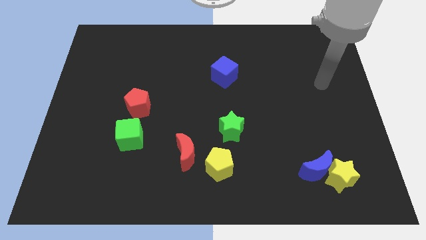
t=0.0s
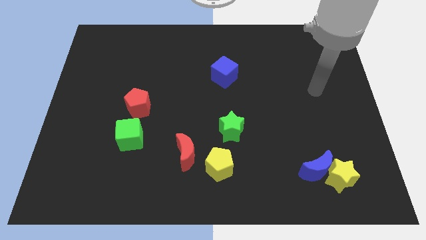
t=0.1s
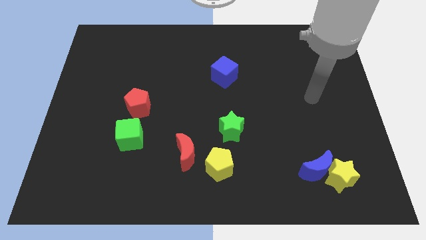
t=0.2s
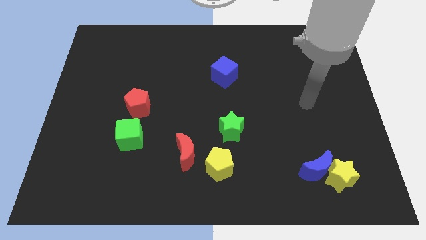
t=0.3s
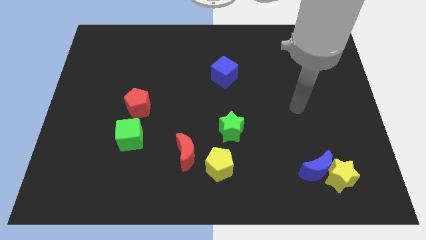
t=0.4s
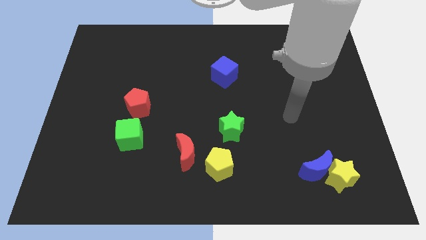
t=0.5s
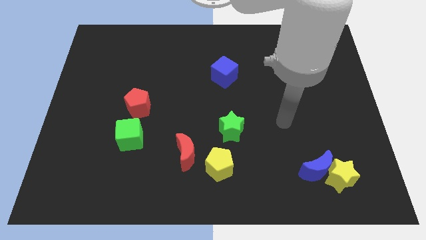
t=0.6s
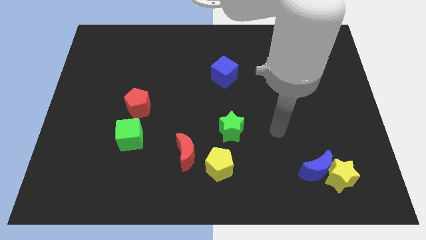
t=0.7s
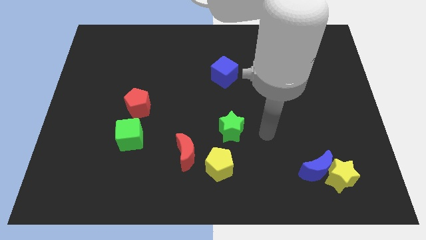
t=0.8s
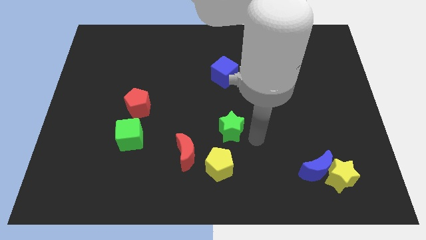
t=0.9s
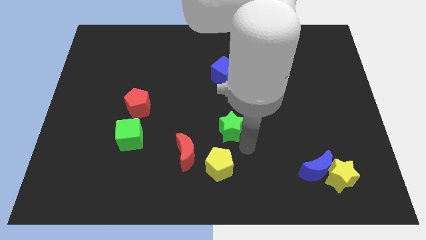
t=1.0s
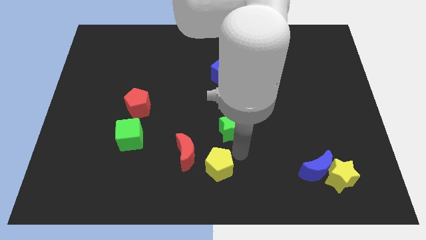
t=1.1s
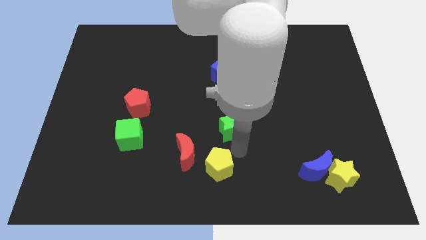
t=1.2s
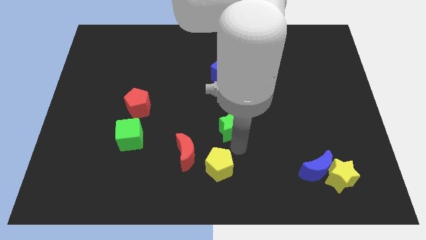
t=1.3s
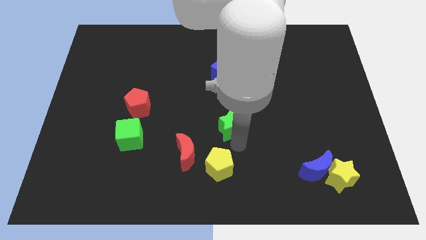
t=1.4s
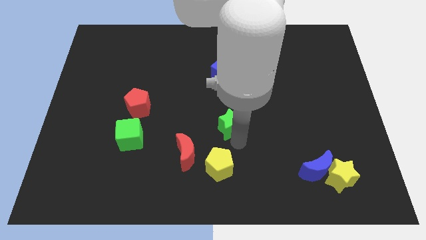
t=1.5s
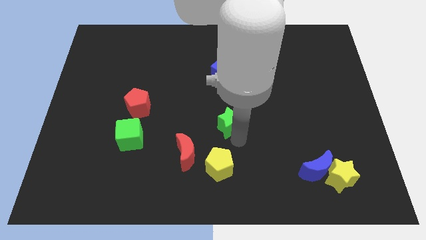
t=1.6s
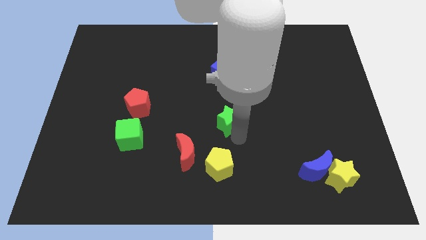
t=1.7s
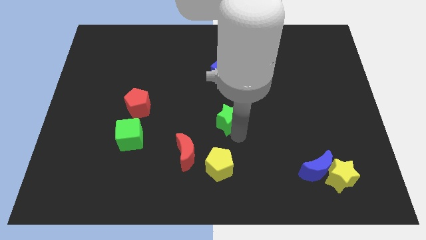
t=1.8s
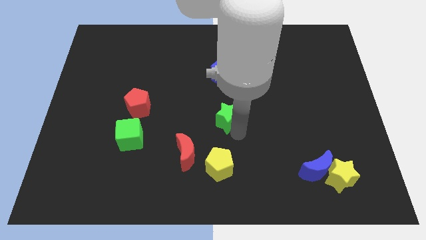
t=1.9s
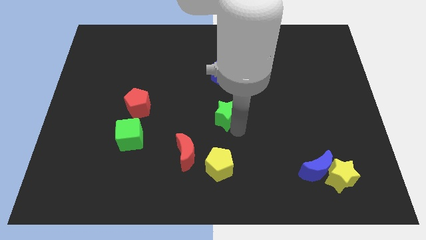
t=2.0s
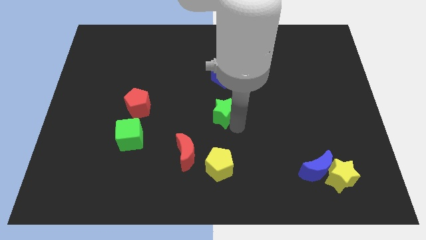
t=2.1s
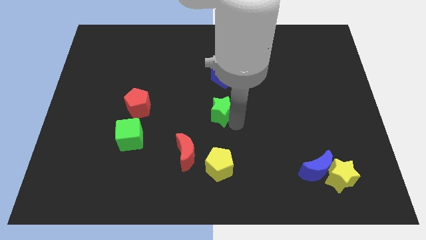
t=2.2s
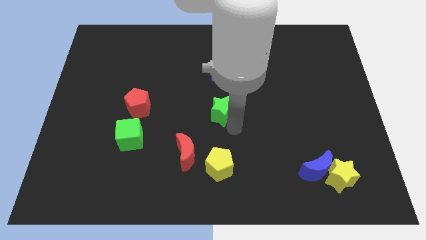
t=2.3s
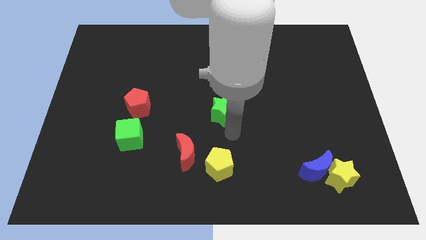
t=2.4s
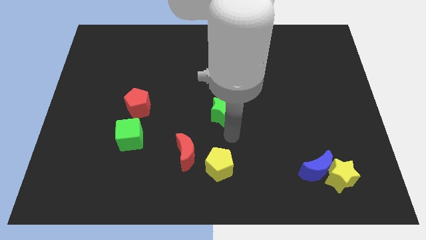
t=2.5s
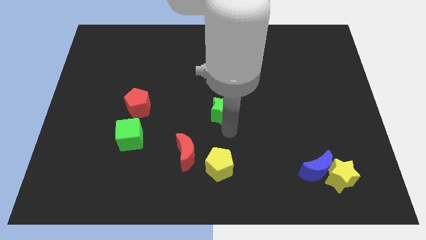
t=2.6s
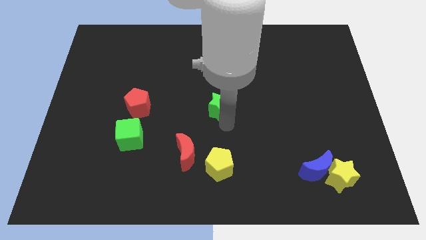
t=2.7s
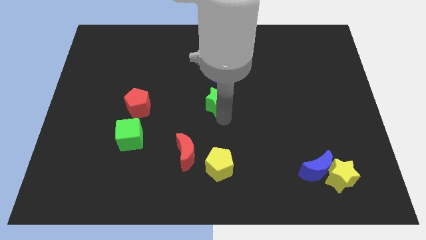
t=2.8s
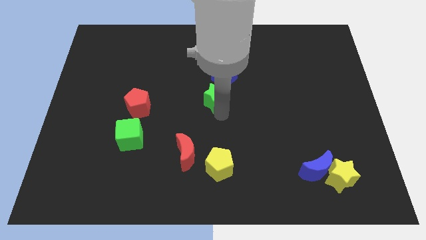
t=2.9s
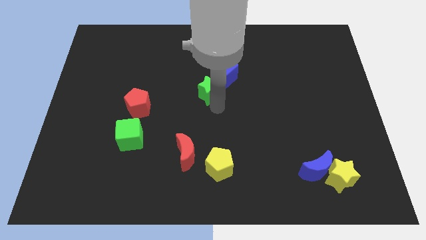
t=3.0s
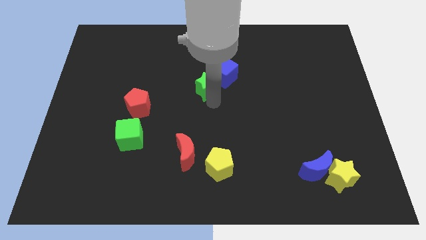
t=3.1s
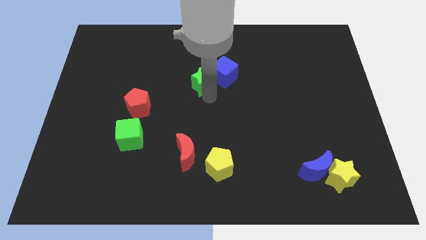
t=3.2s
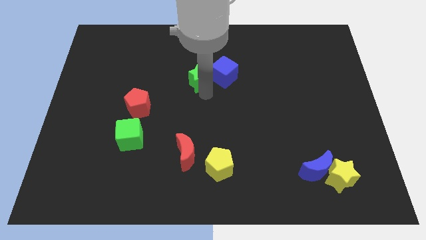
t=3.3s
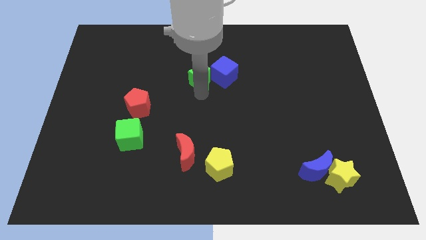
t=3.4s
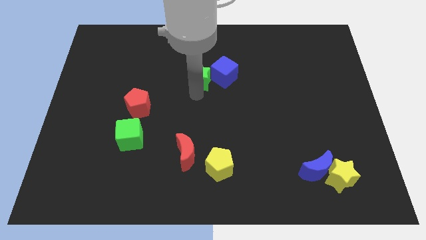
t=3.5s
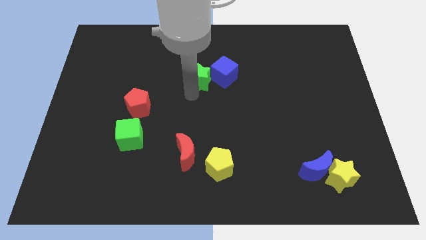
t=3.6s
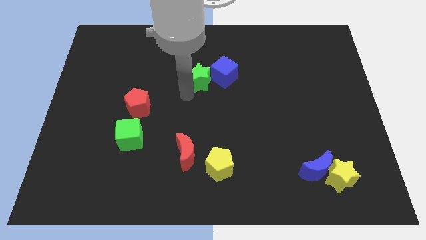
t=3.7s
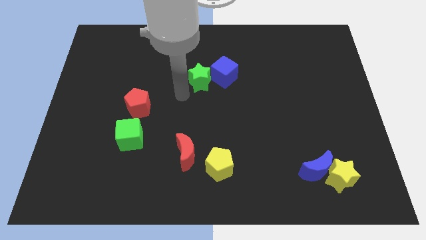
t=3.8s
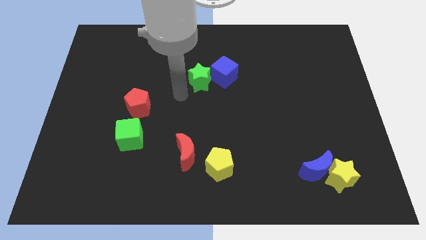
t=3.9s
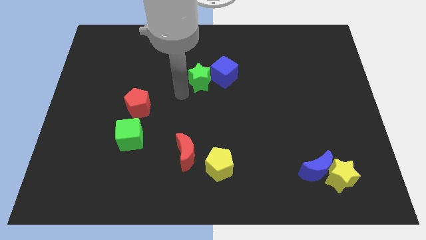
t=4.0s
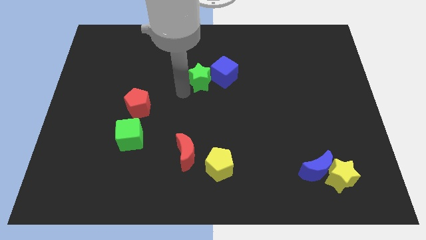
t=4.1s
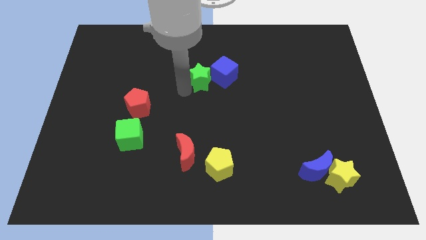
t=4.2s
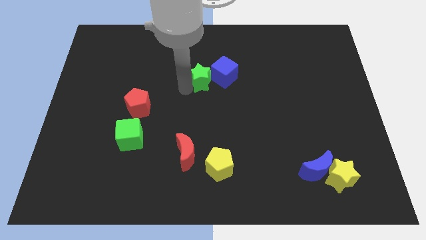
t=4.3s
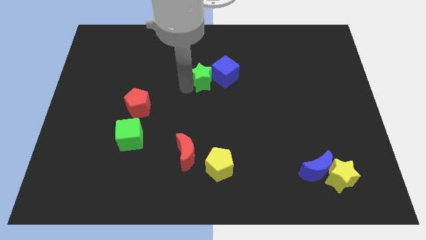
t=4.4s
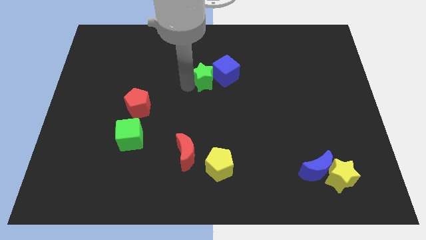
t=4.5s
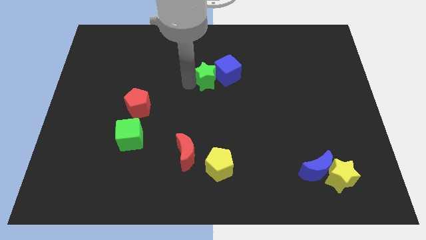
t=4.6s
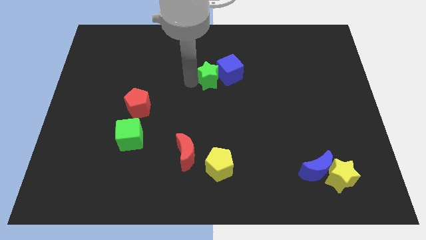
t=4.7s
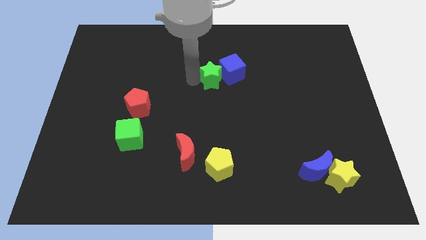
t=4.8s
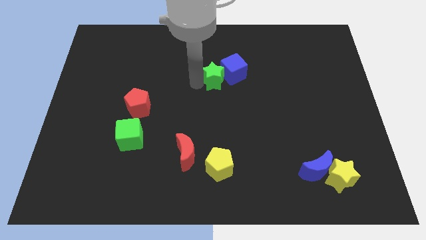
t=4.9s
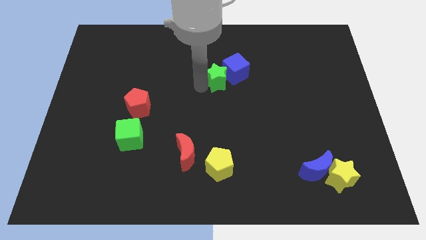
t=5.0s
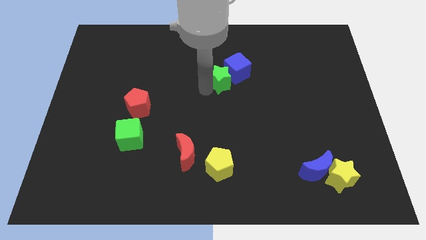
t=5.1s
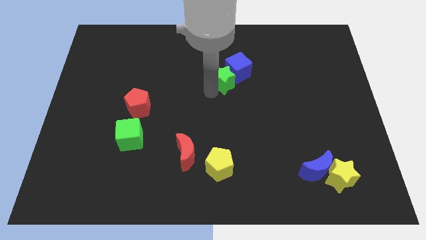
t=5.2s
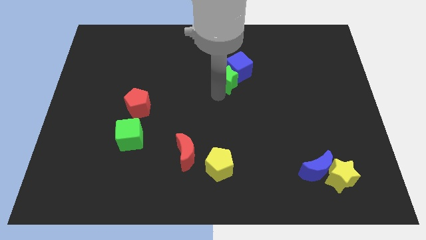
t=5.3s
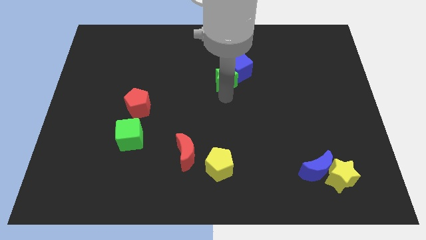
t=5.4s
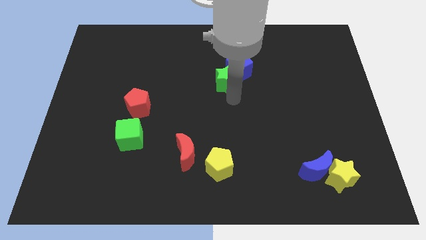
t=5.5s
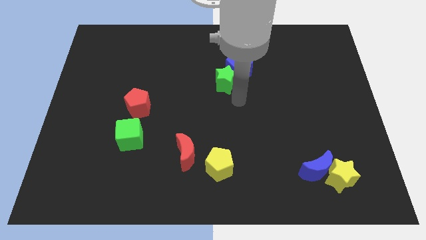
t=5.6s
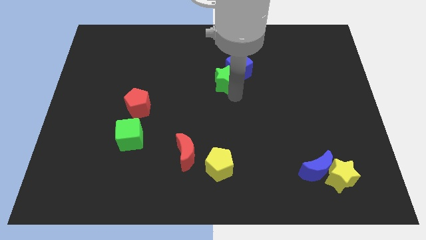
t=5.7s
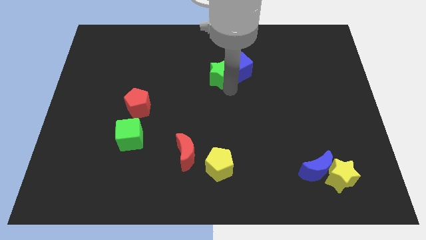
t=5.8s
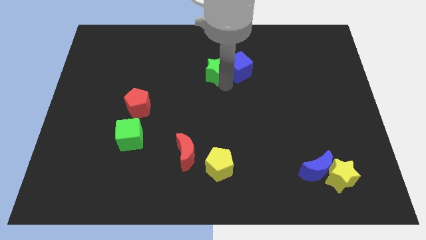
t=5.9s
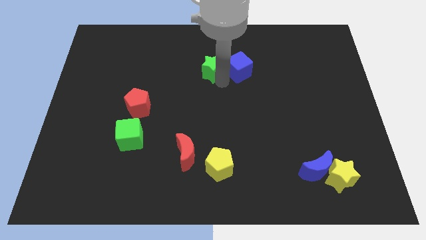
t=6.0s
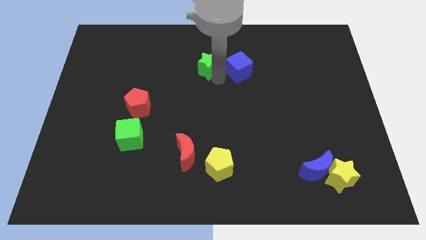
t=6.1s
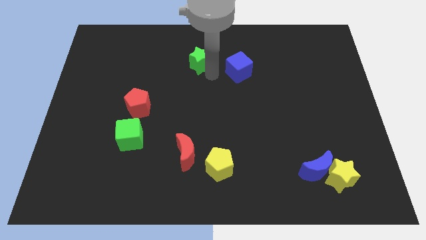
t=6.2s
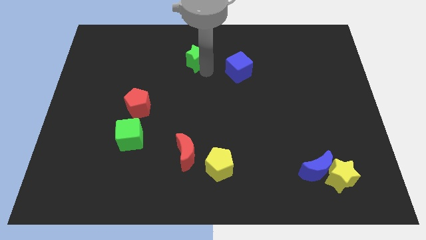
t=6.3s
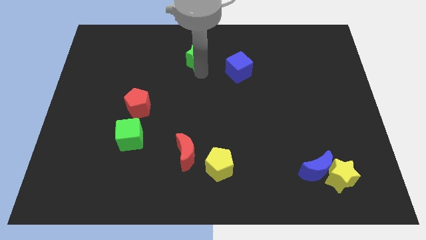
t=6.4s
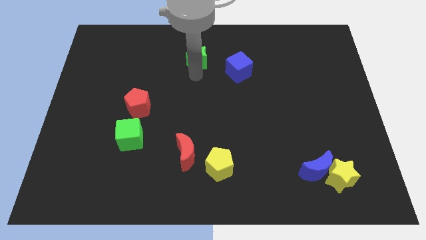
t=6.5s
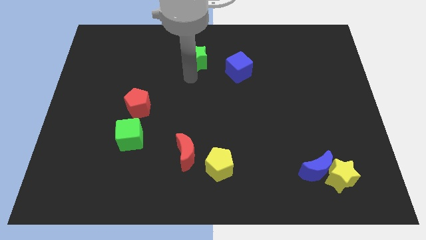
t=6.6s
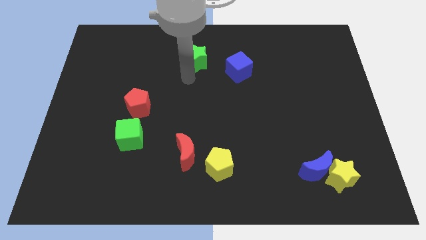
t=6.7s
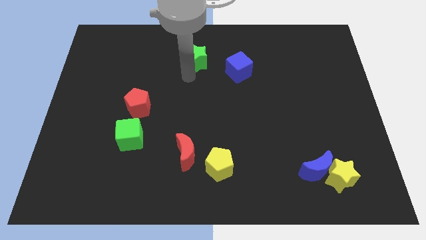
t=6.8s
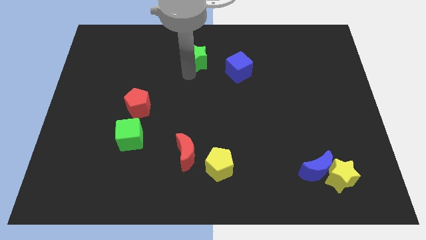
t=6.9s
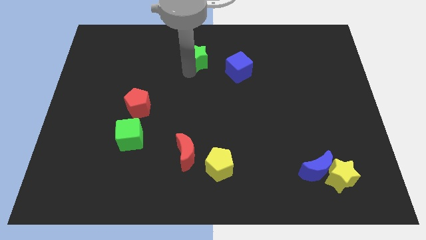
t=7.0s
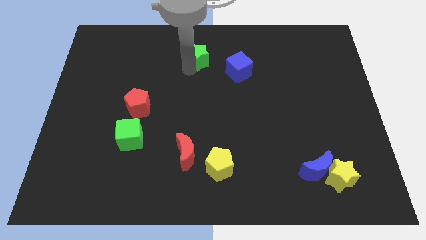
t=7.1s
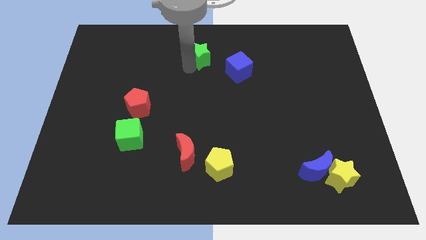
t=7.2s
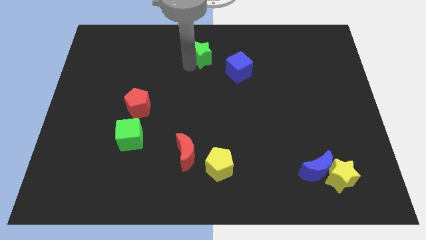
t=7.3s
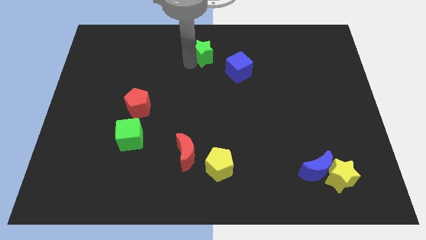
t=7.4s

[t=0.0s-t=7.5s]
put the green star to the top side
